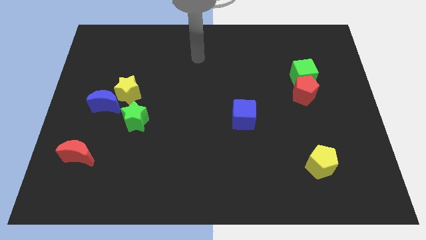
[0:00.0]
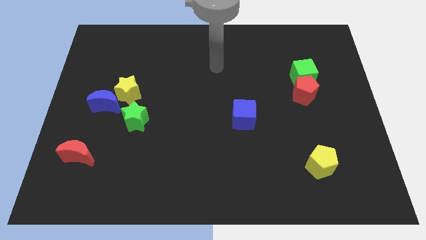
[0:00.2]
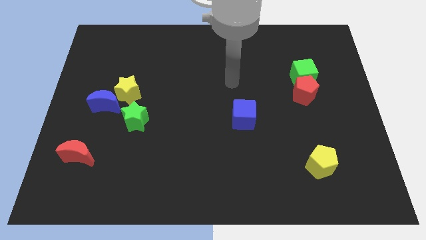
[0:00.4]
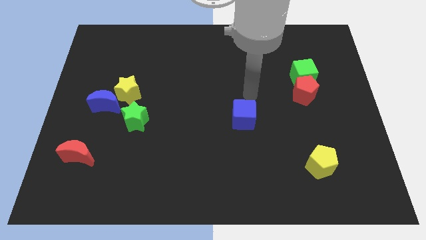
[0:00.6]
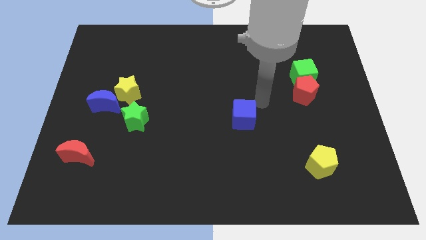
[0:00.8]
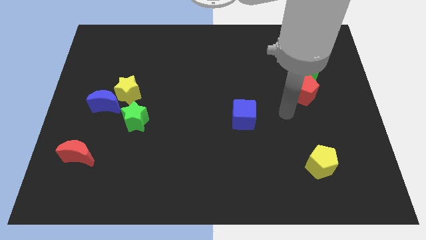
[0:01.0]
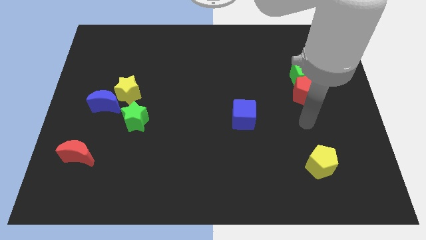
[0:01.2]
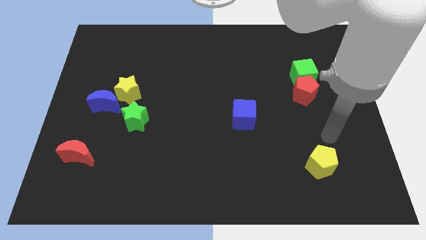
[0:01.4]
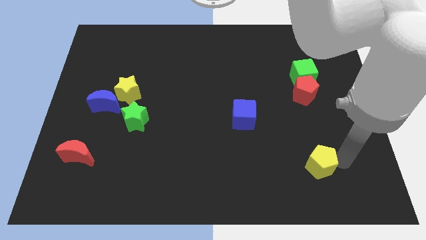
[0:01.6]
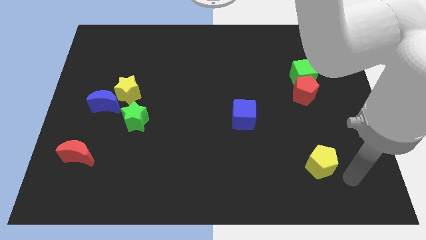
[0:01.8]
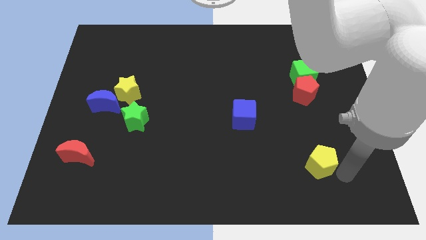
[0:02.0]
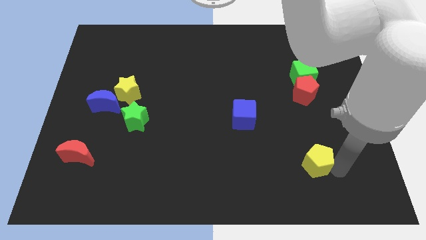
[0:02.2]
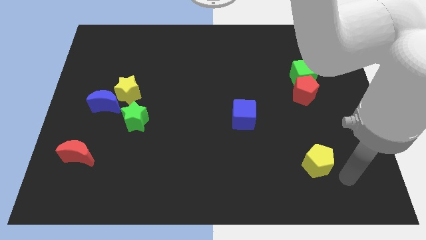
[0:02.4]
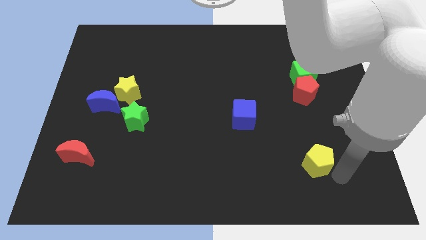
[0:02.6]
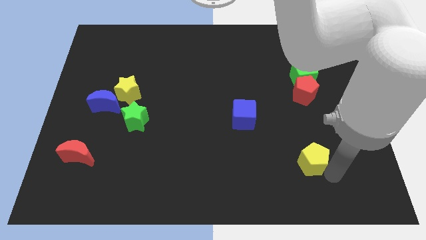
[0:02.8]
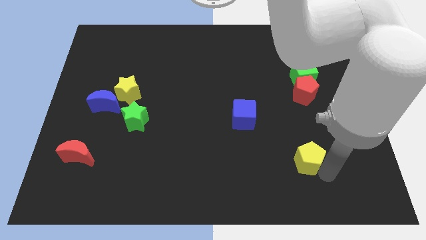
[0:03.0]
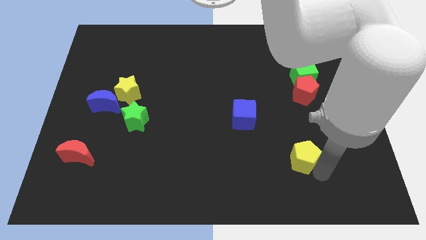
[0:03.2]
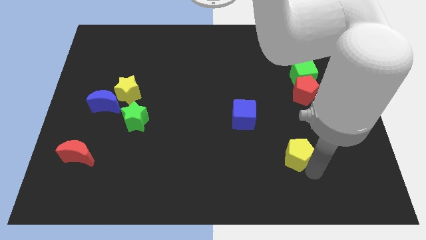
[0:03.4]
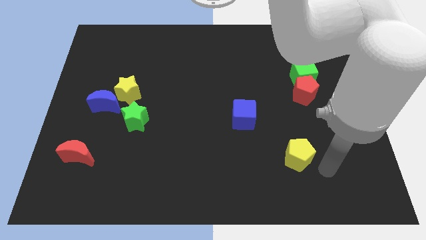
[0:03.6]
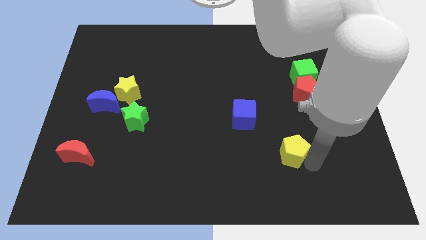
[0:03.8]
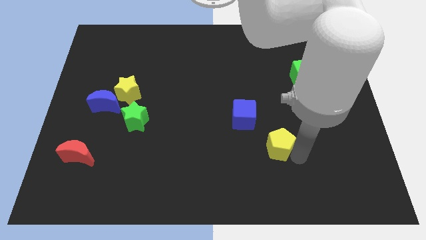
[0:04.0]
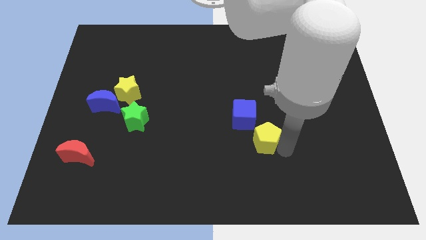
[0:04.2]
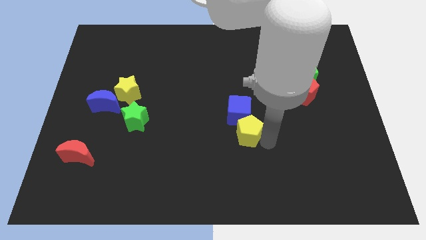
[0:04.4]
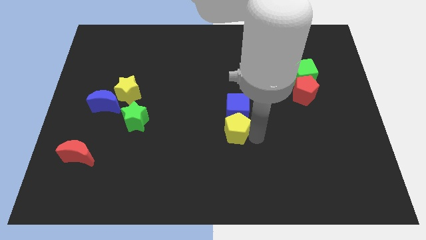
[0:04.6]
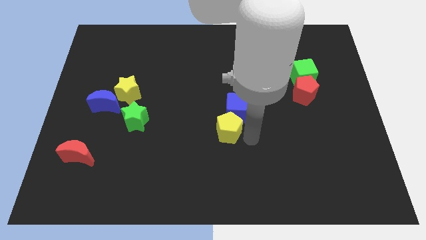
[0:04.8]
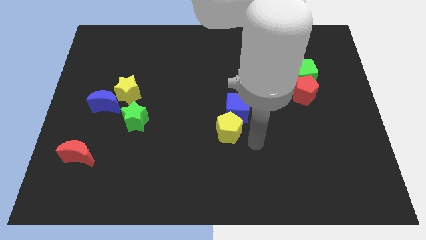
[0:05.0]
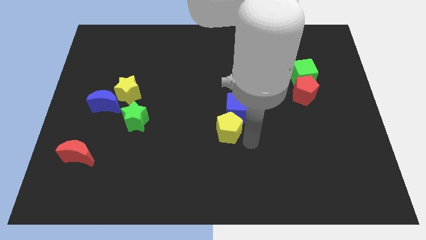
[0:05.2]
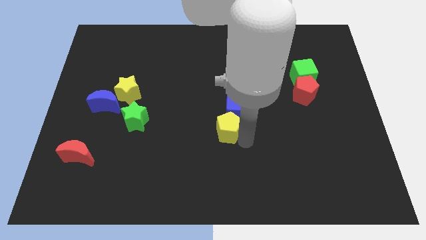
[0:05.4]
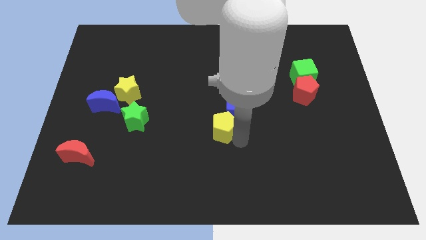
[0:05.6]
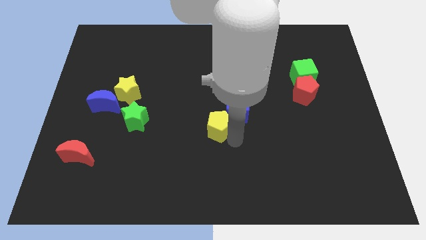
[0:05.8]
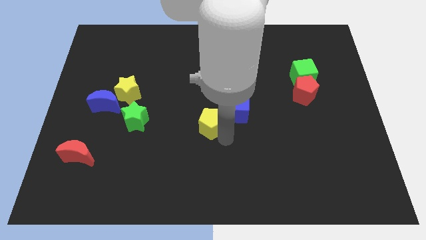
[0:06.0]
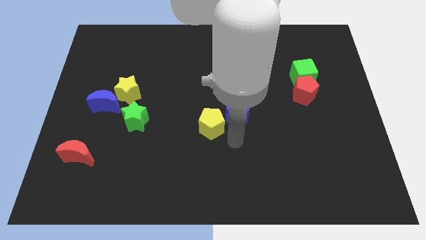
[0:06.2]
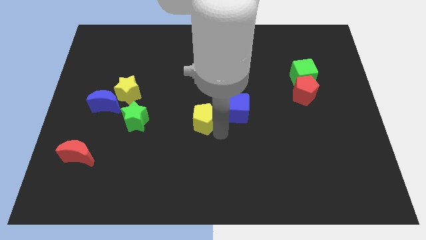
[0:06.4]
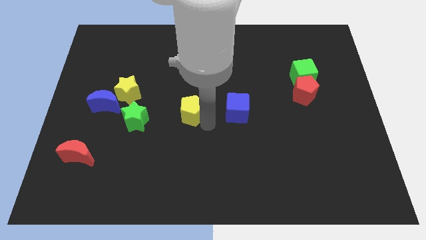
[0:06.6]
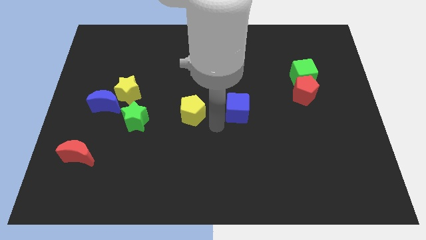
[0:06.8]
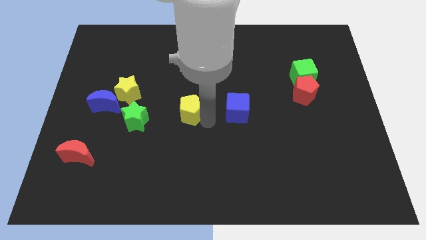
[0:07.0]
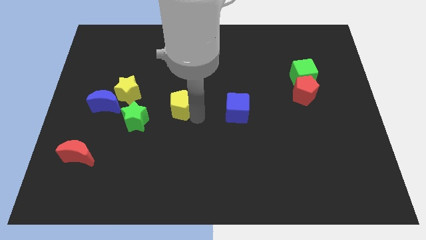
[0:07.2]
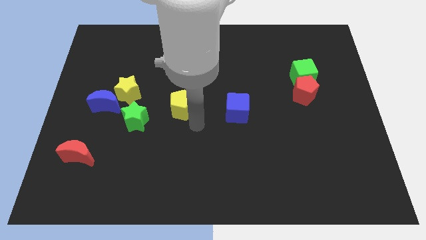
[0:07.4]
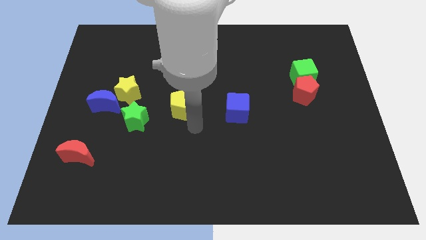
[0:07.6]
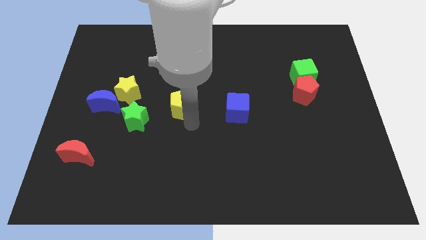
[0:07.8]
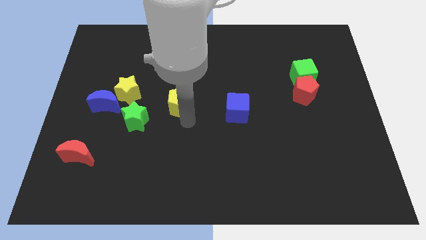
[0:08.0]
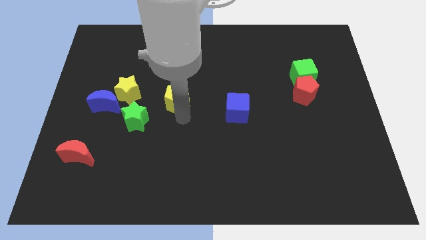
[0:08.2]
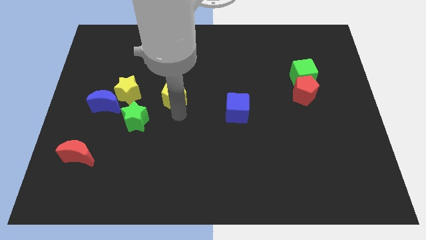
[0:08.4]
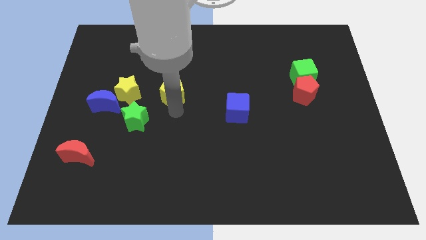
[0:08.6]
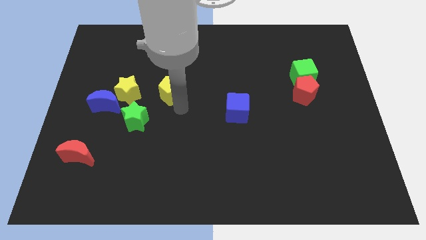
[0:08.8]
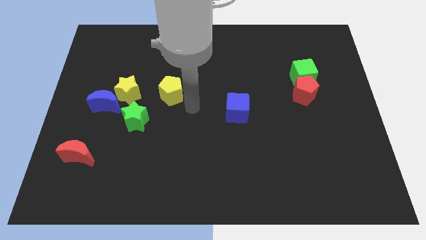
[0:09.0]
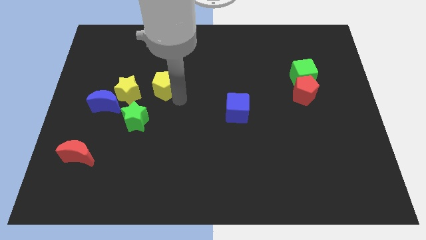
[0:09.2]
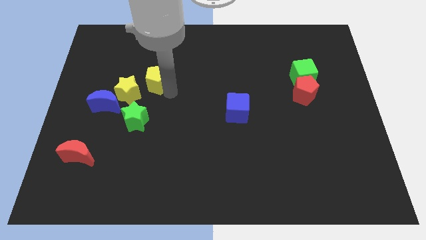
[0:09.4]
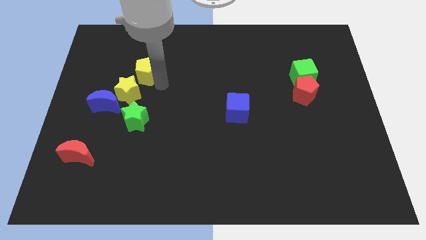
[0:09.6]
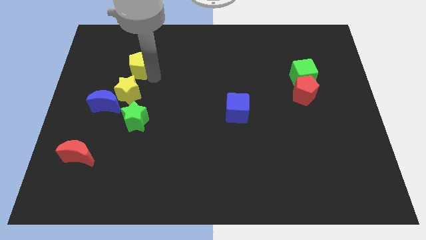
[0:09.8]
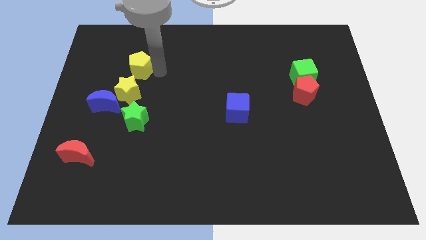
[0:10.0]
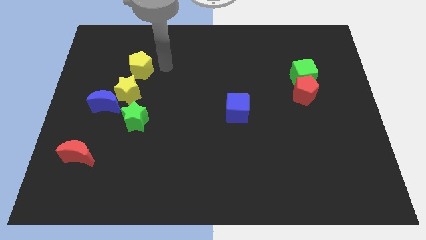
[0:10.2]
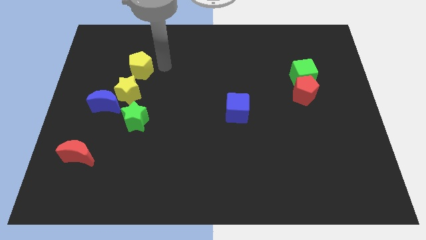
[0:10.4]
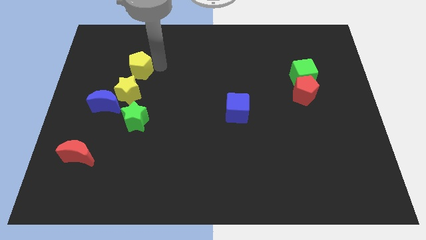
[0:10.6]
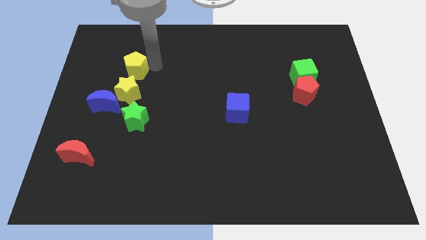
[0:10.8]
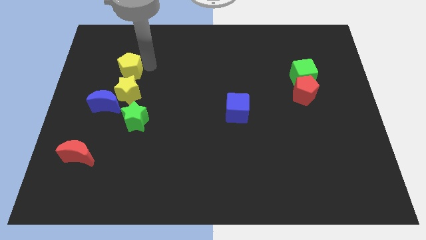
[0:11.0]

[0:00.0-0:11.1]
put the yellow pentagon to the top left side of the yellow star
